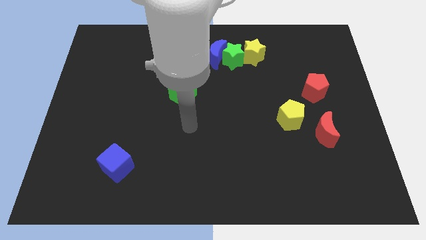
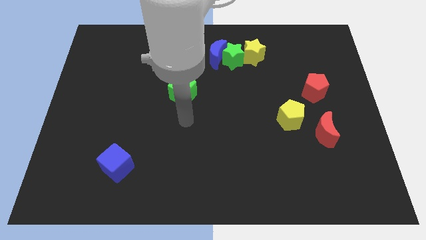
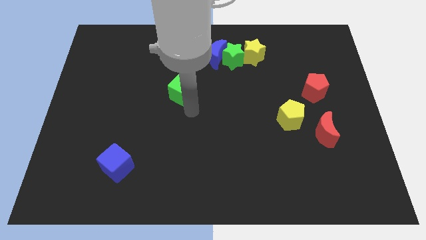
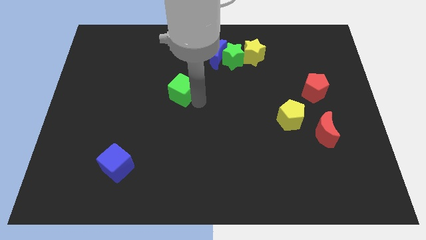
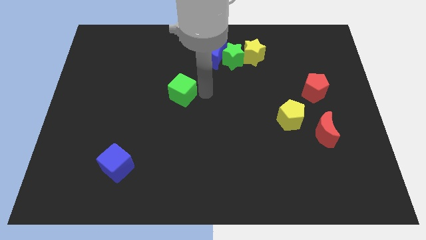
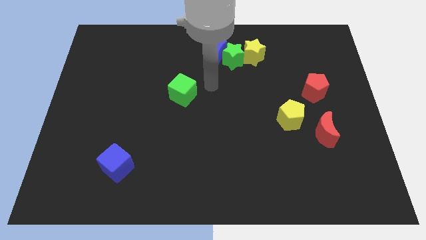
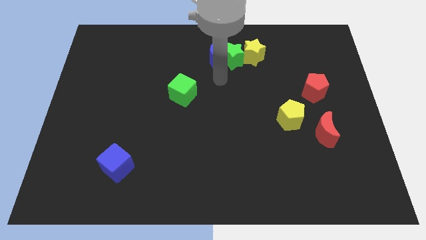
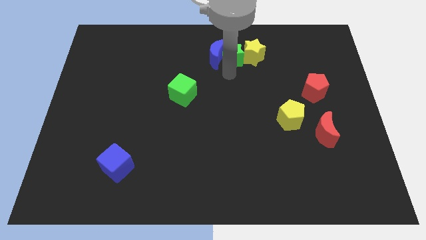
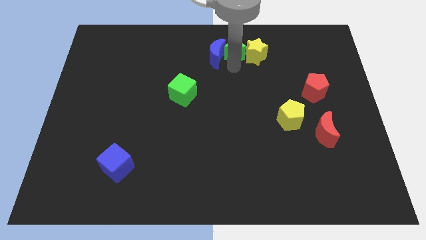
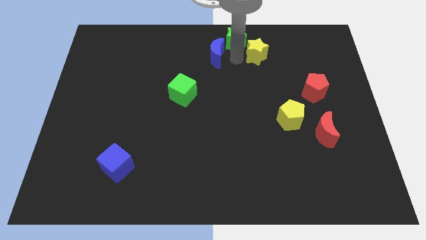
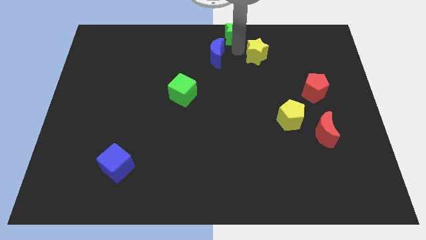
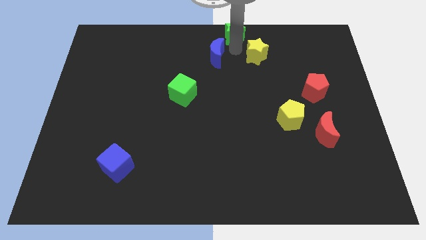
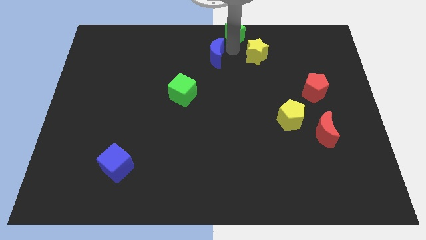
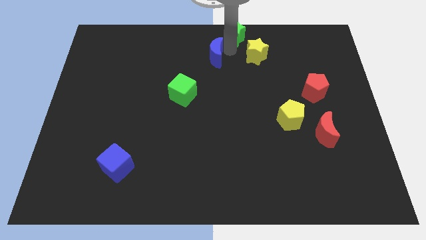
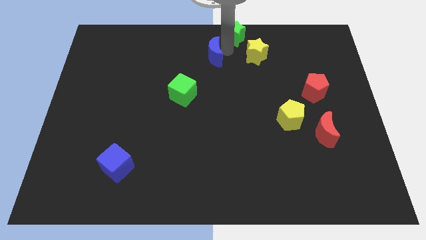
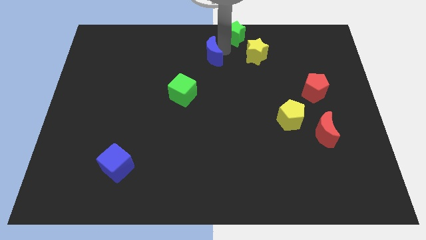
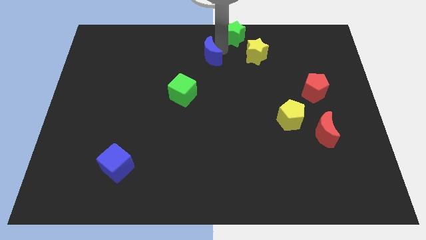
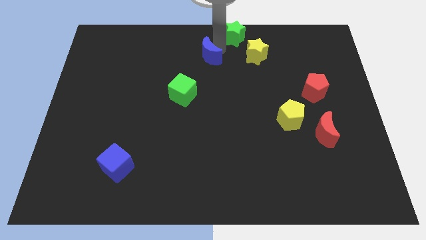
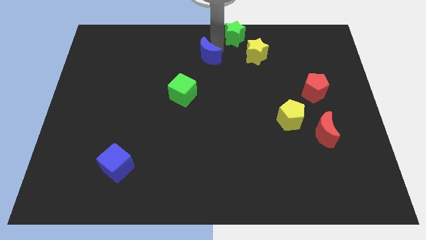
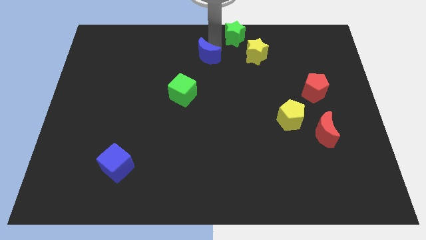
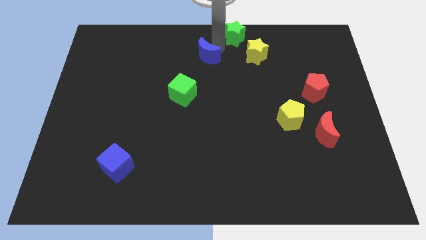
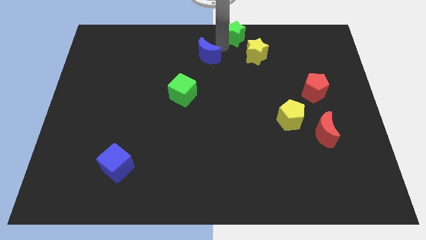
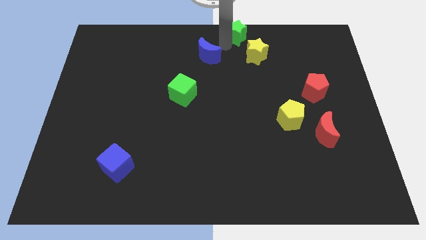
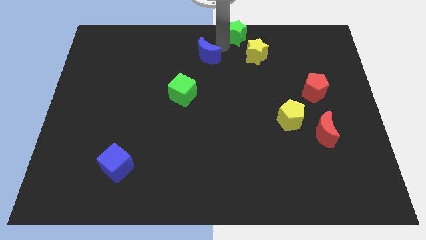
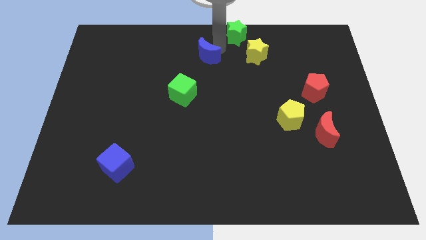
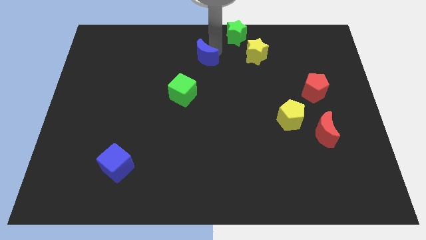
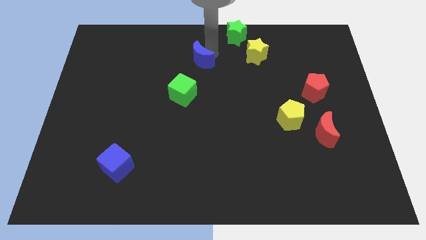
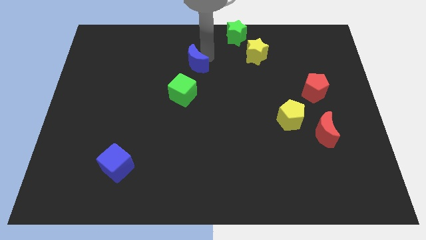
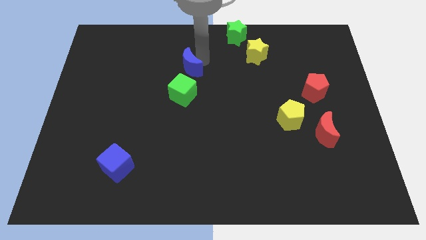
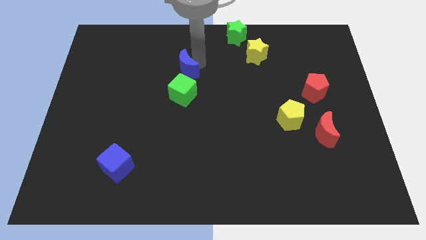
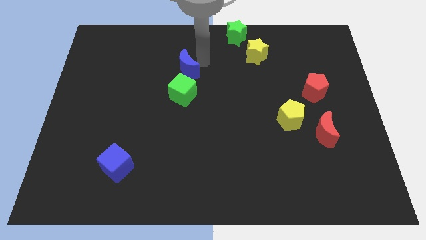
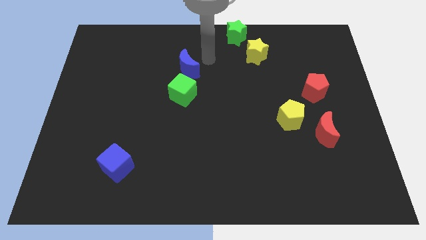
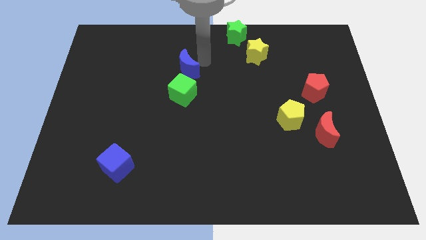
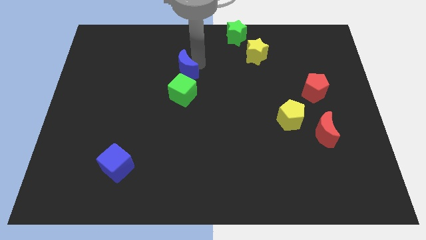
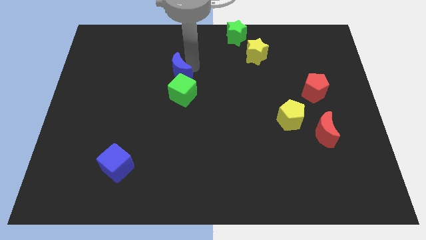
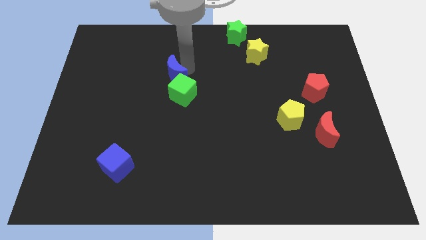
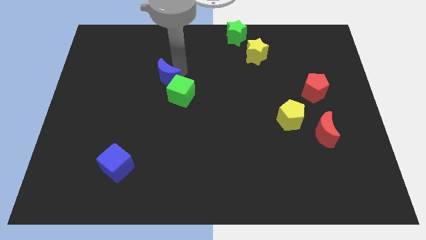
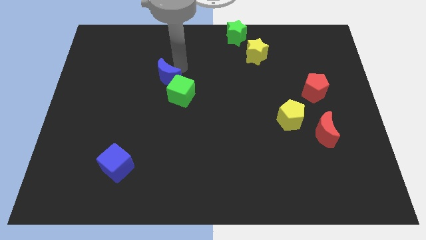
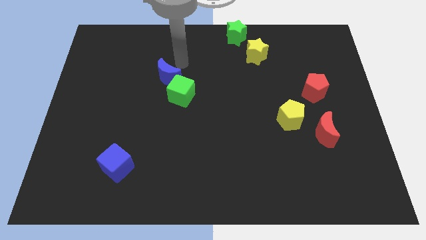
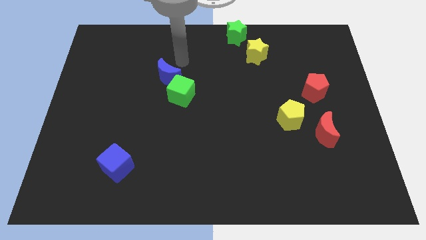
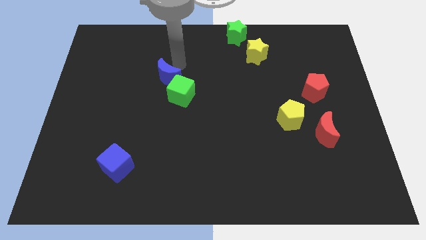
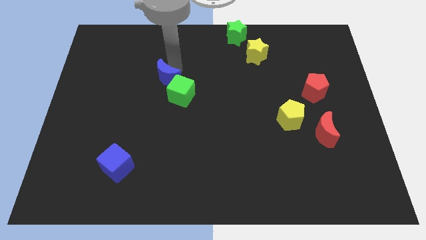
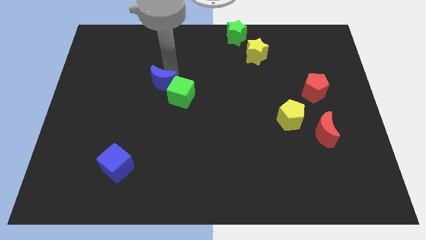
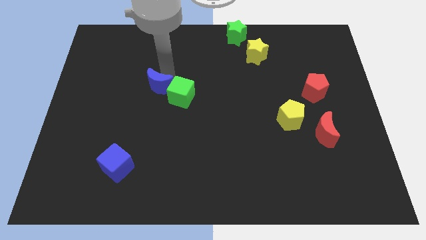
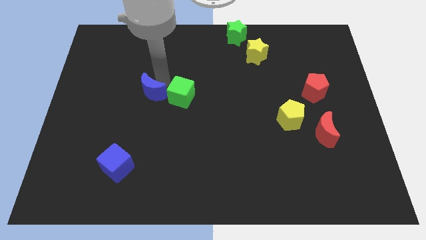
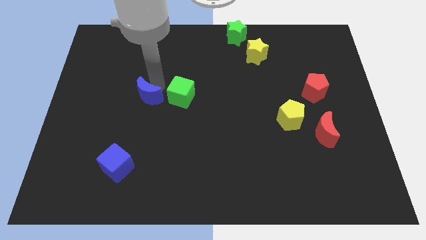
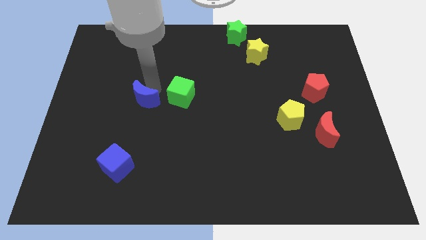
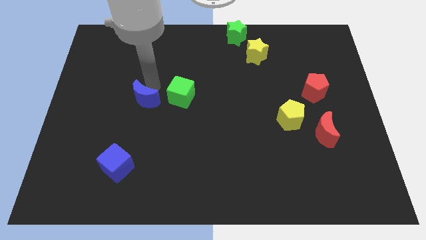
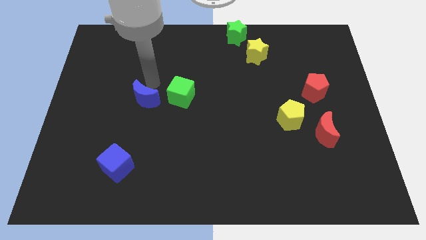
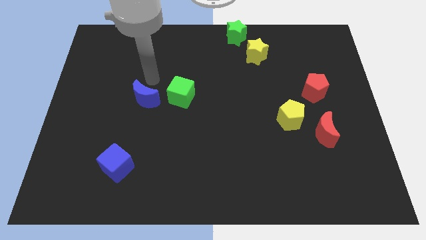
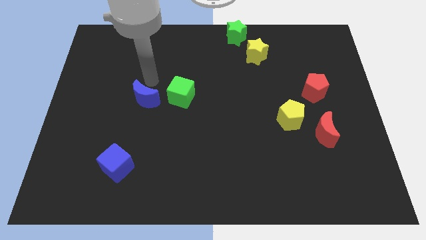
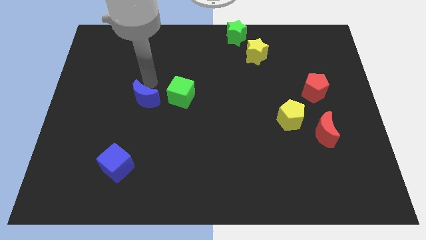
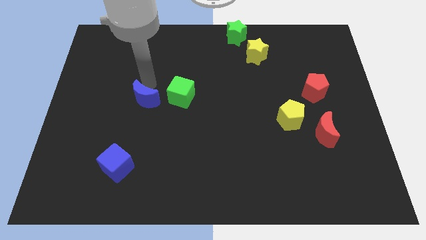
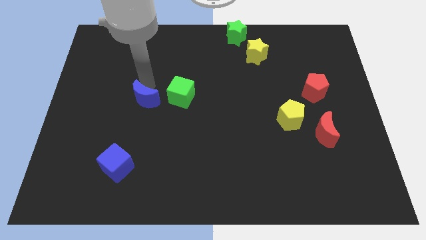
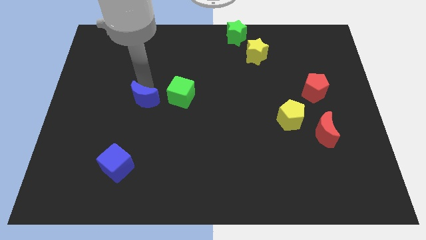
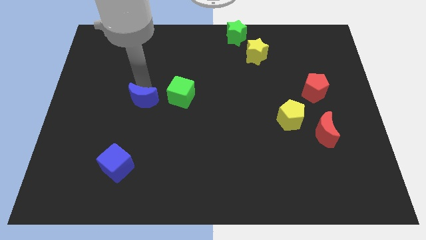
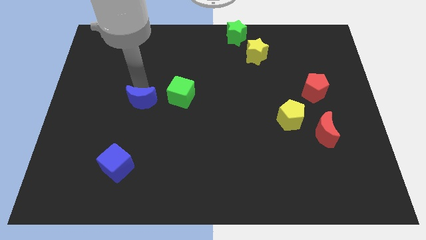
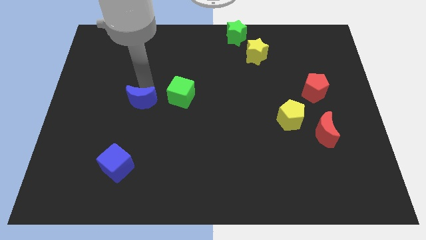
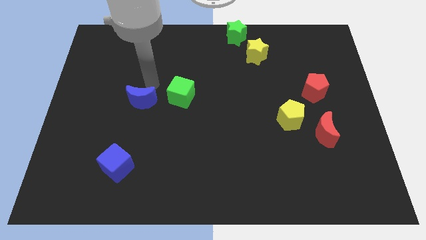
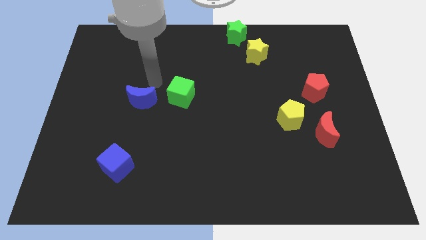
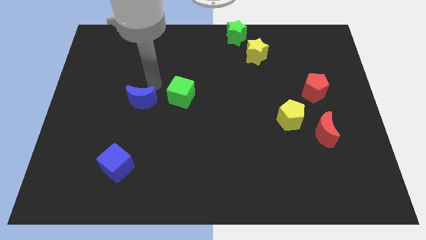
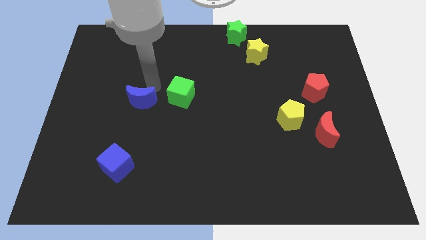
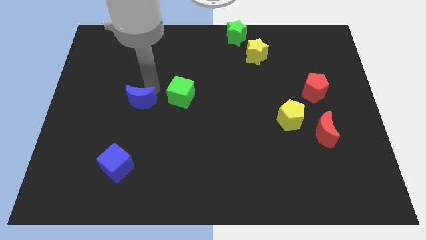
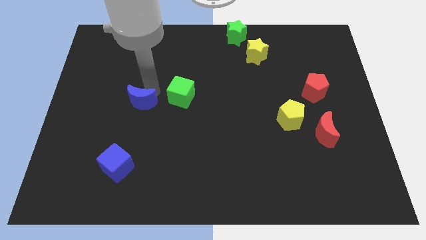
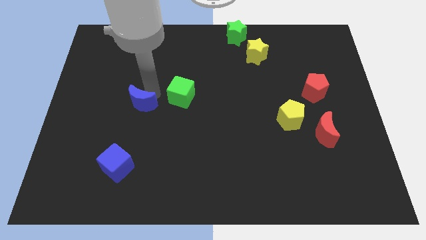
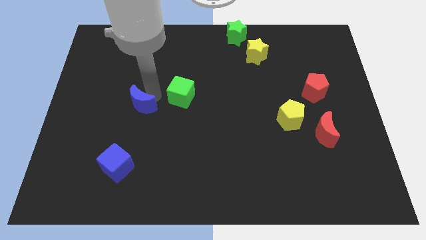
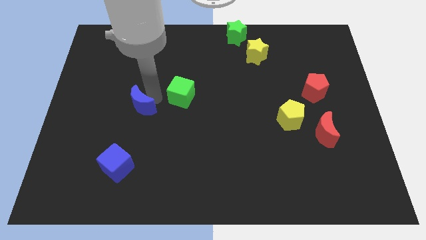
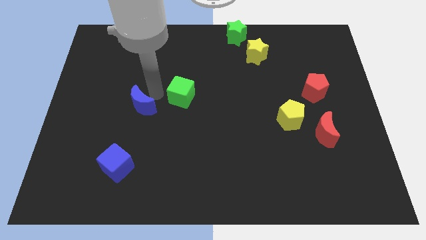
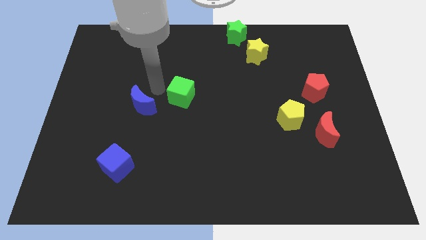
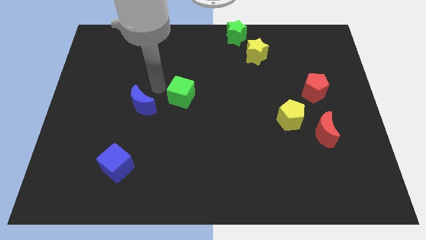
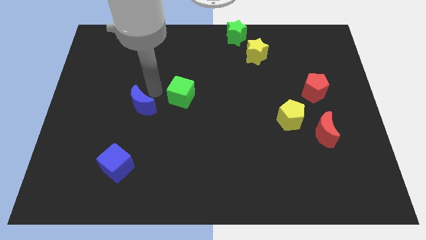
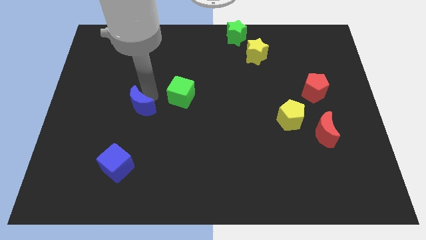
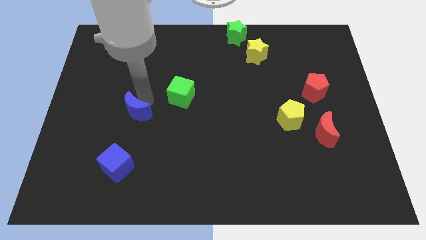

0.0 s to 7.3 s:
move the blue moon to the top of the blue cube

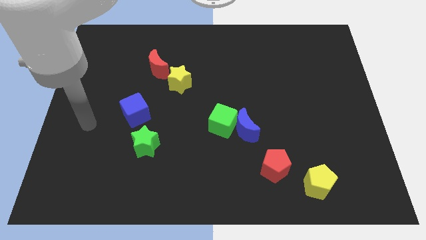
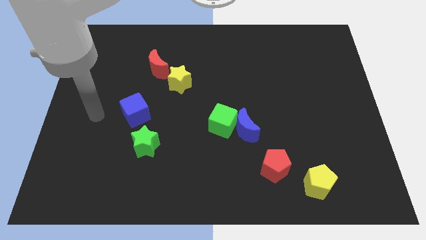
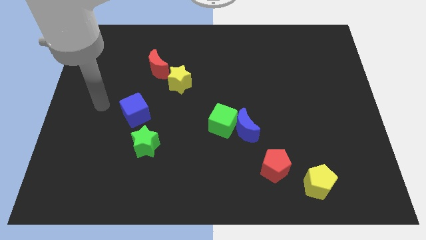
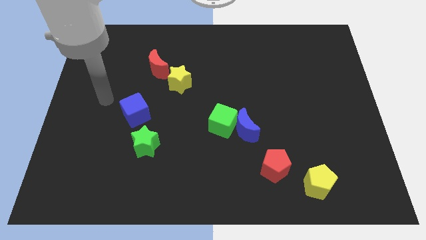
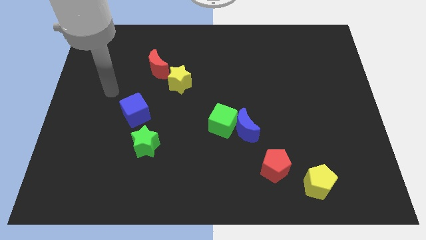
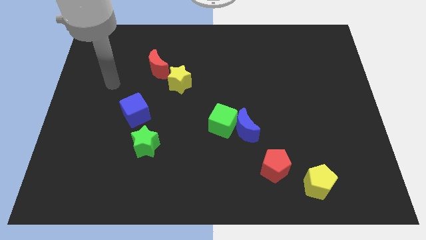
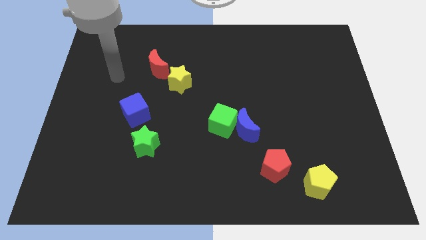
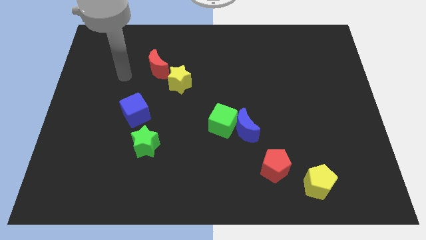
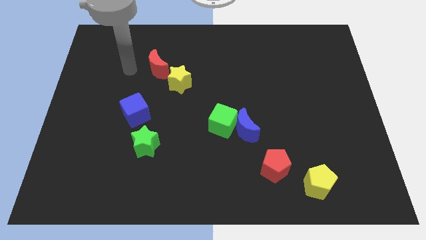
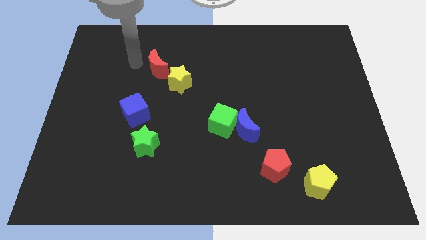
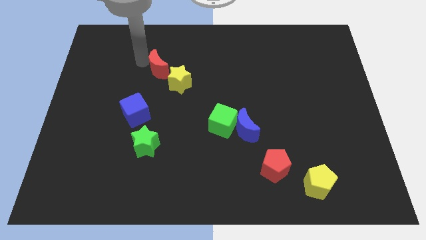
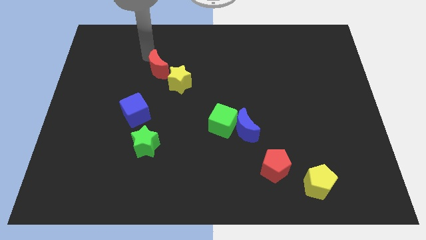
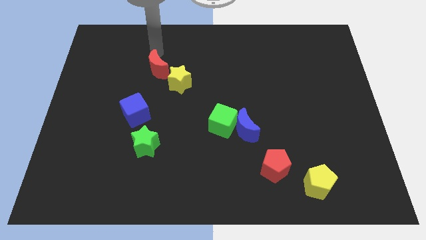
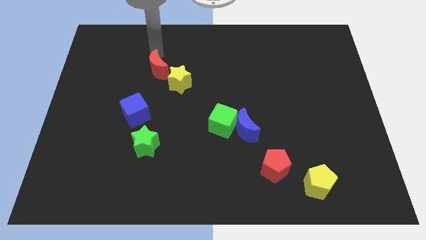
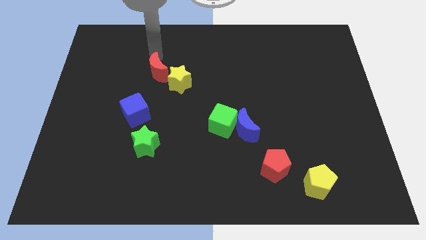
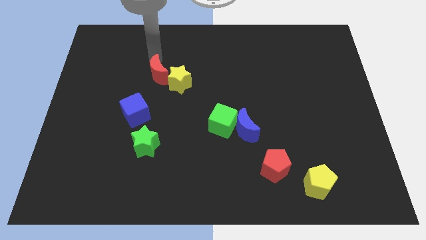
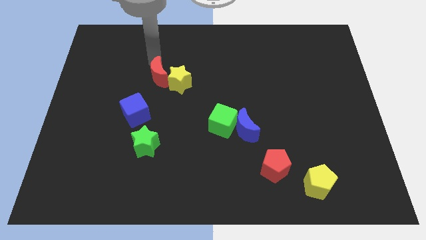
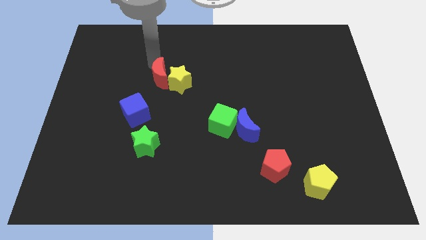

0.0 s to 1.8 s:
move the red moon to the bottom left of the yellow star
